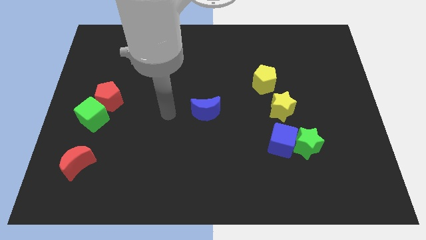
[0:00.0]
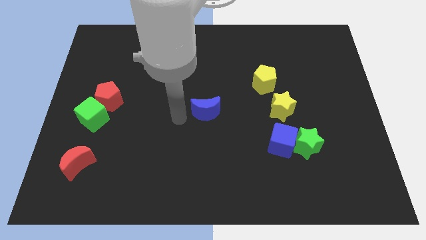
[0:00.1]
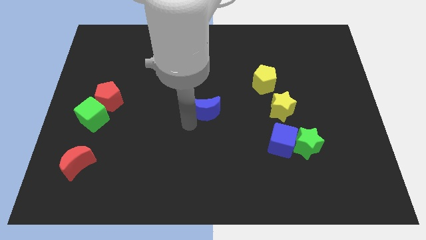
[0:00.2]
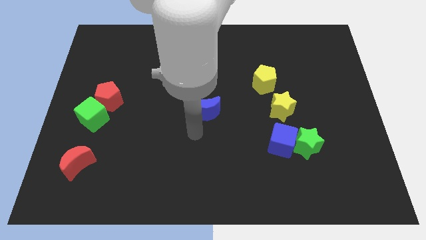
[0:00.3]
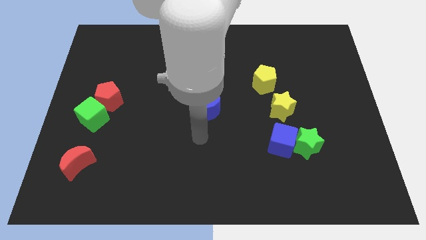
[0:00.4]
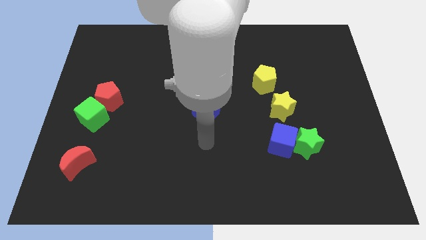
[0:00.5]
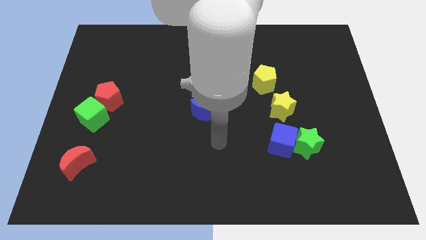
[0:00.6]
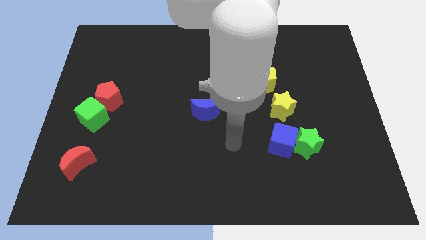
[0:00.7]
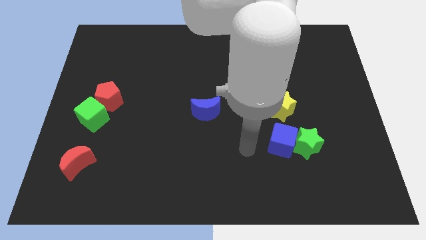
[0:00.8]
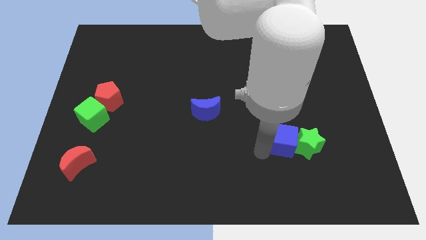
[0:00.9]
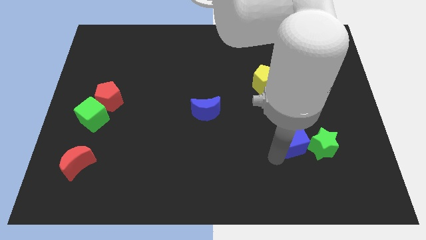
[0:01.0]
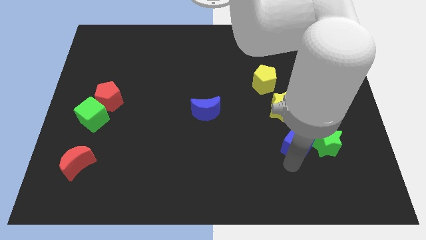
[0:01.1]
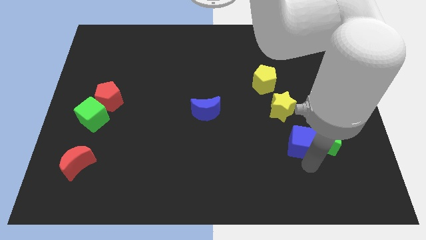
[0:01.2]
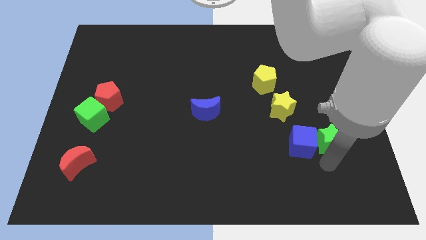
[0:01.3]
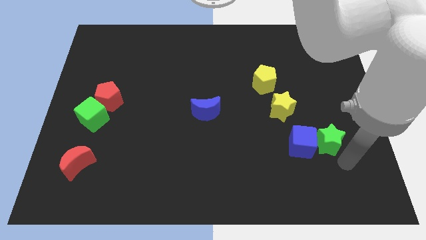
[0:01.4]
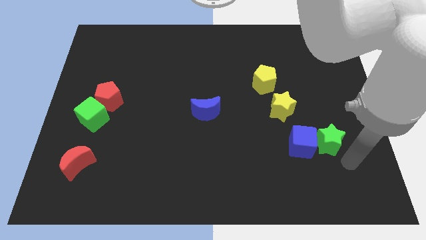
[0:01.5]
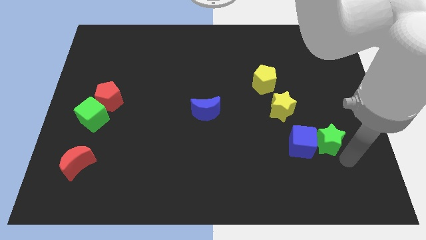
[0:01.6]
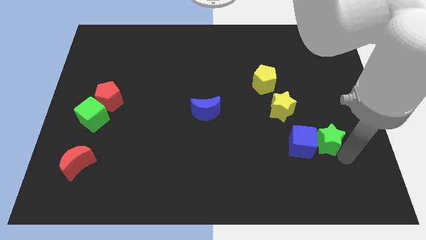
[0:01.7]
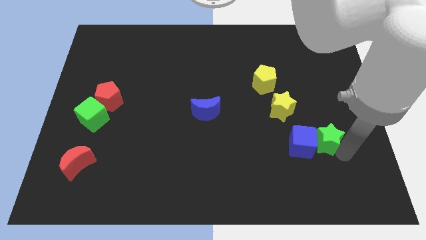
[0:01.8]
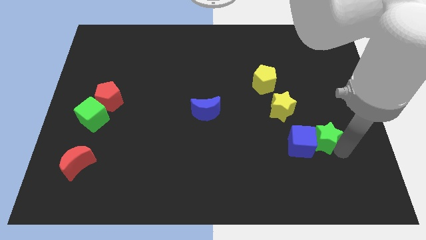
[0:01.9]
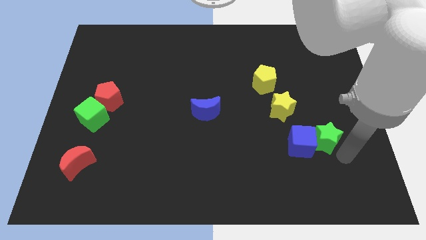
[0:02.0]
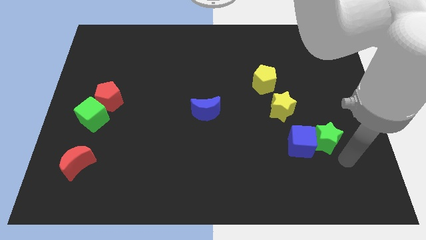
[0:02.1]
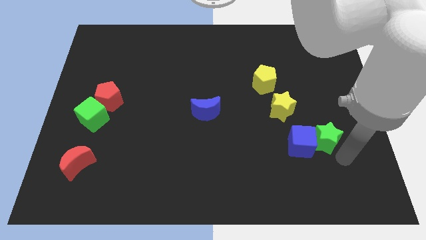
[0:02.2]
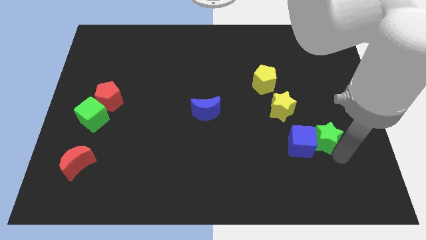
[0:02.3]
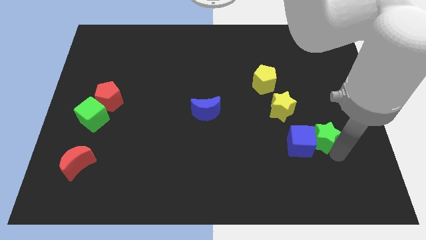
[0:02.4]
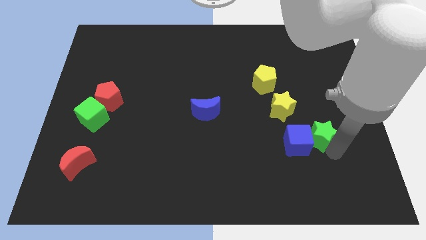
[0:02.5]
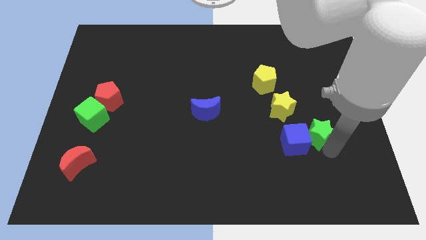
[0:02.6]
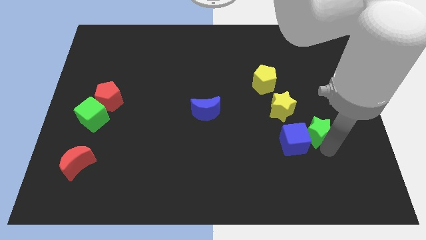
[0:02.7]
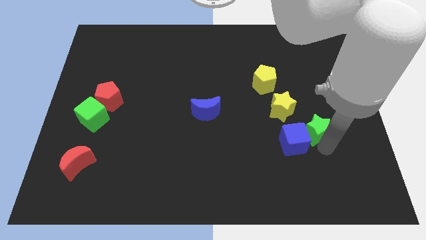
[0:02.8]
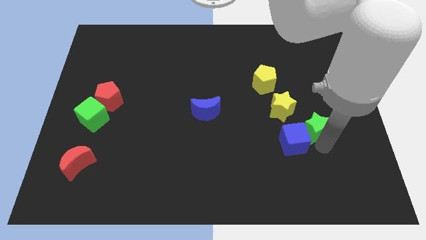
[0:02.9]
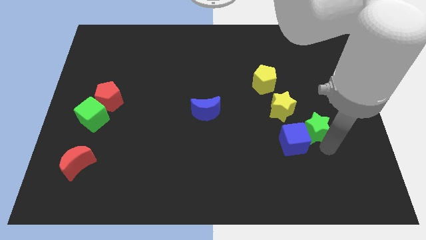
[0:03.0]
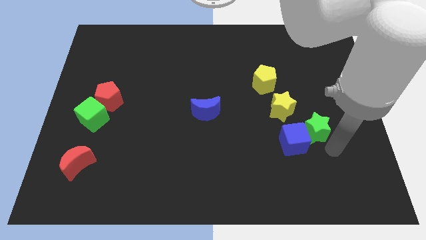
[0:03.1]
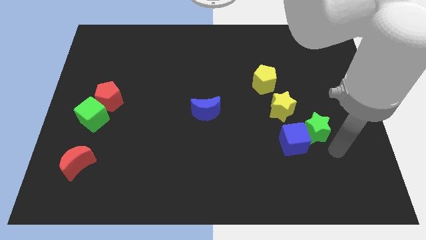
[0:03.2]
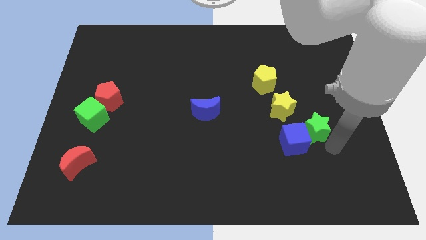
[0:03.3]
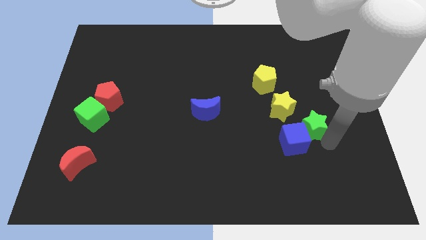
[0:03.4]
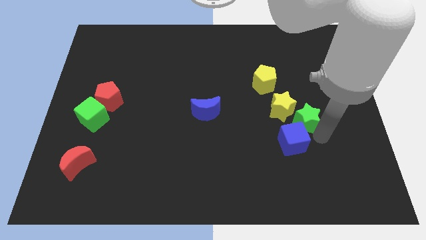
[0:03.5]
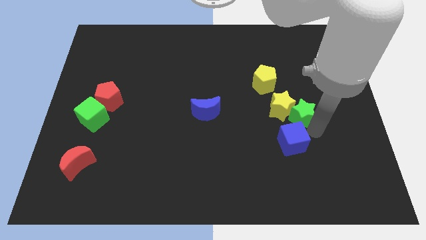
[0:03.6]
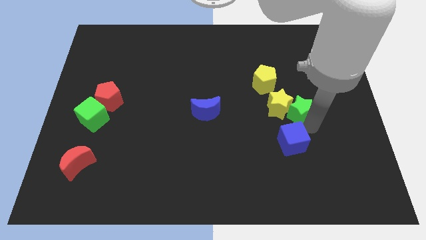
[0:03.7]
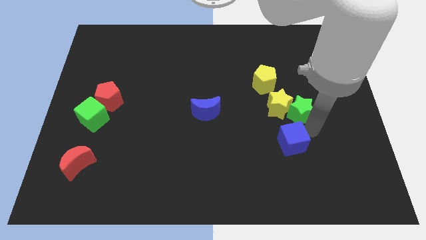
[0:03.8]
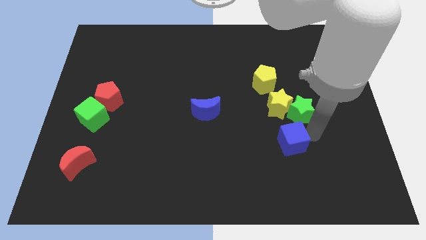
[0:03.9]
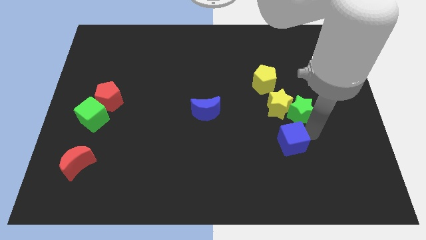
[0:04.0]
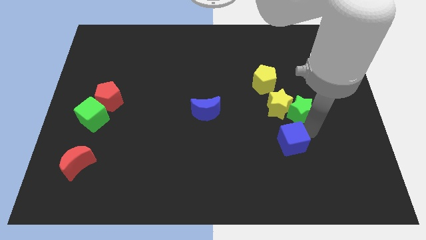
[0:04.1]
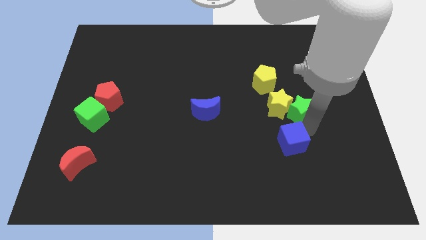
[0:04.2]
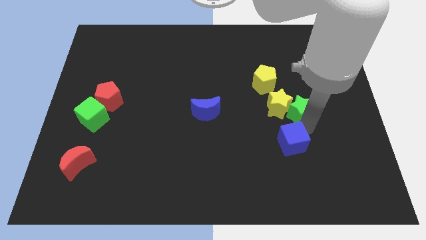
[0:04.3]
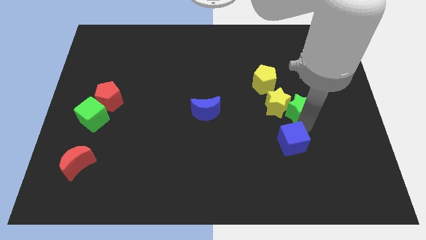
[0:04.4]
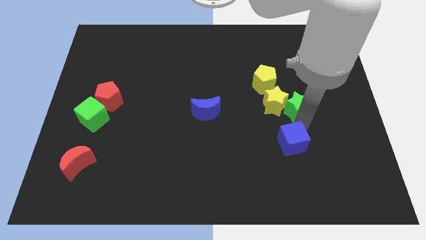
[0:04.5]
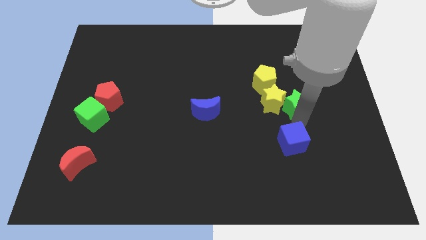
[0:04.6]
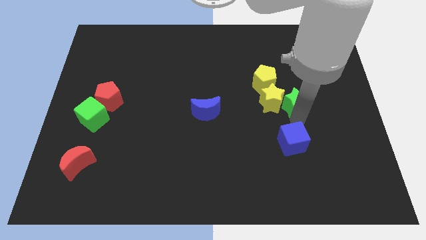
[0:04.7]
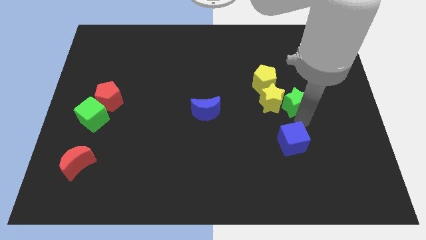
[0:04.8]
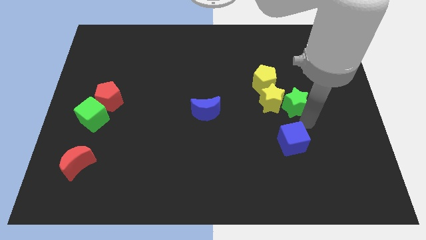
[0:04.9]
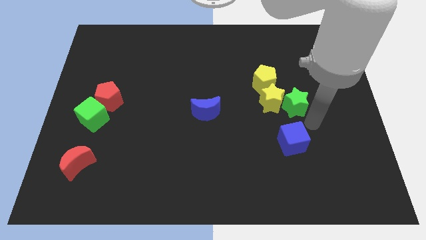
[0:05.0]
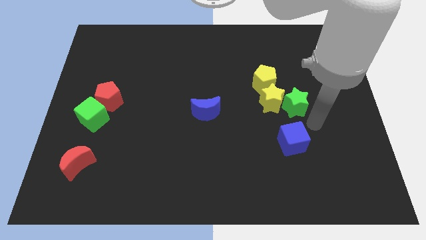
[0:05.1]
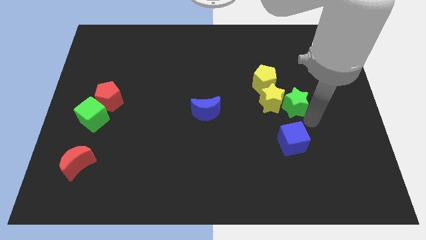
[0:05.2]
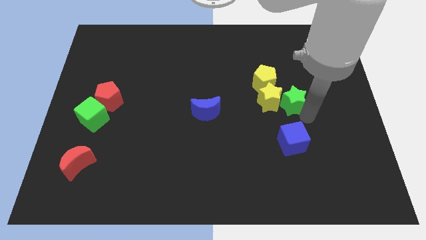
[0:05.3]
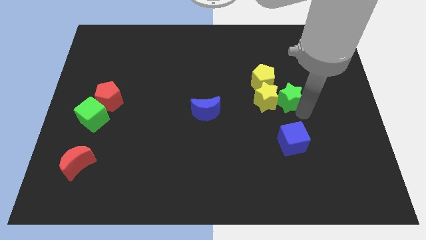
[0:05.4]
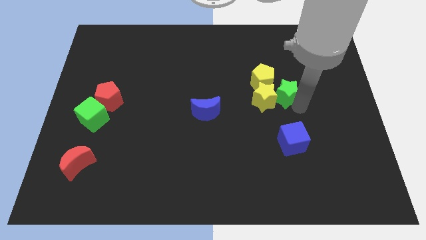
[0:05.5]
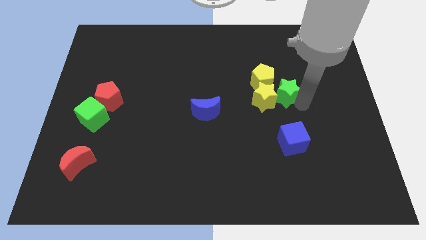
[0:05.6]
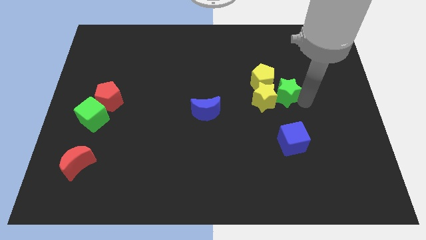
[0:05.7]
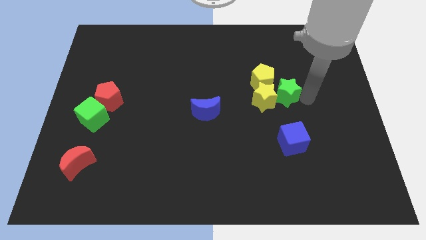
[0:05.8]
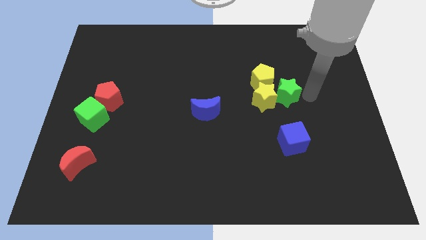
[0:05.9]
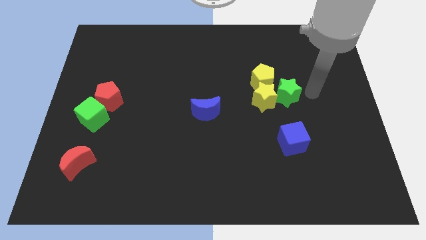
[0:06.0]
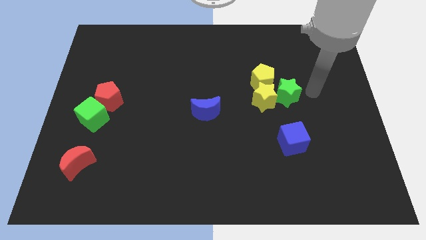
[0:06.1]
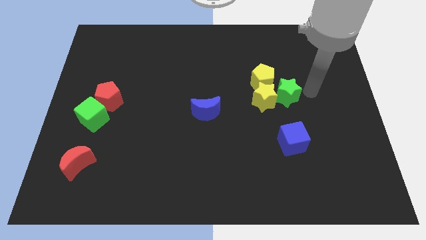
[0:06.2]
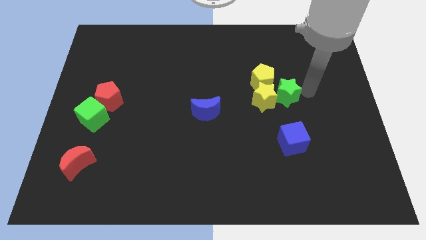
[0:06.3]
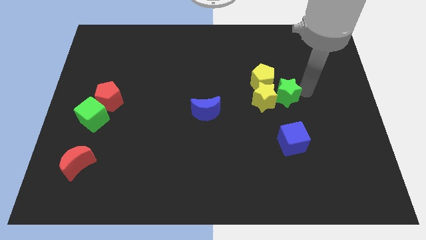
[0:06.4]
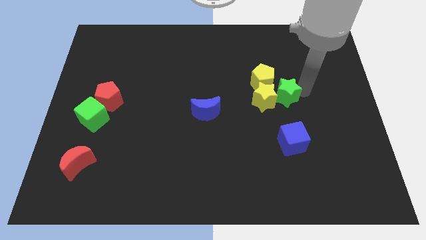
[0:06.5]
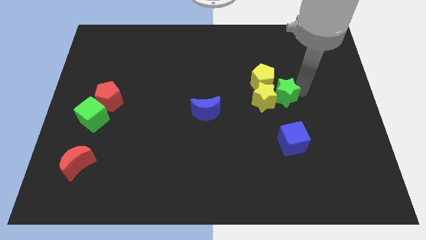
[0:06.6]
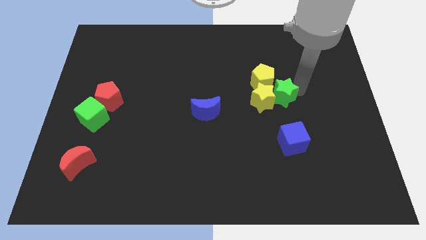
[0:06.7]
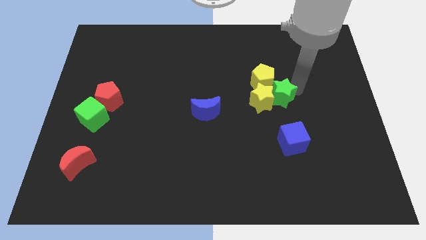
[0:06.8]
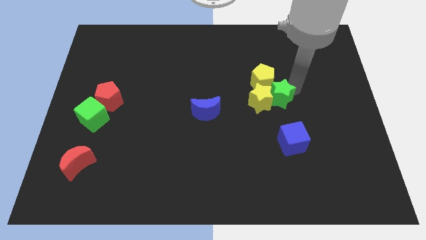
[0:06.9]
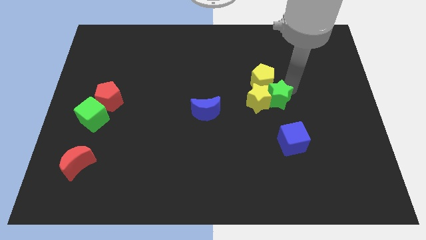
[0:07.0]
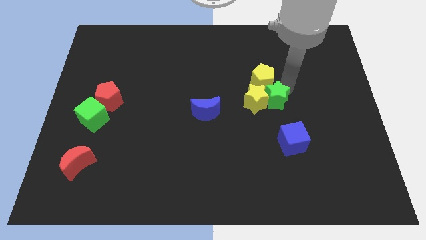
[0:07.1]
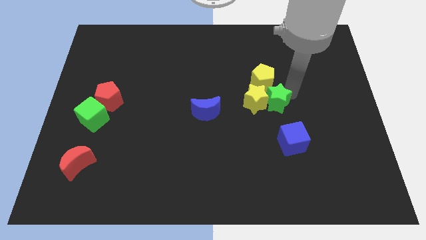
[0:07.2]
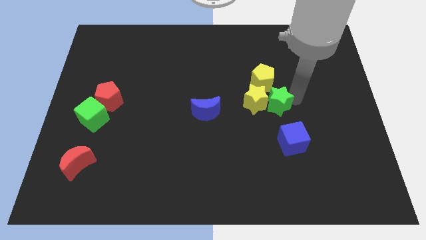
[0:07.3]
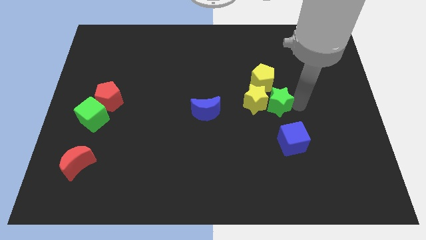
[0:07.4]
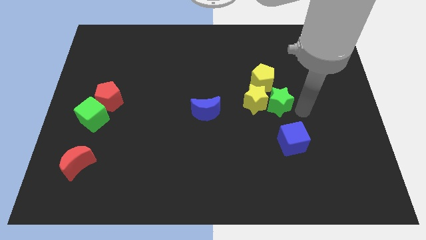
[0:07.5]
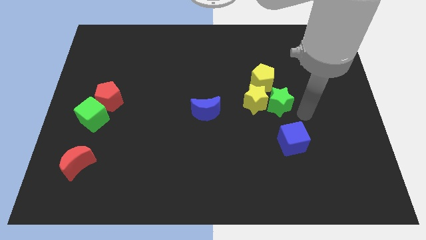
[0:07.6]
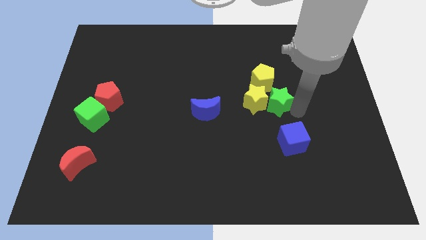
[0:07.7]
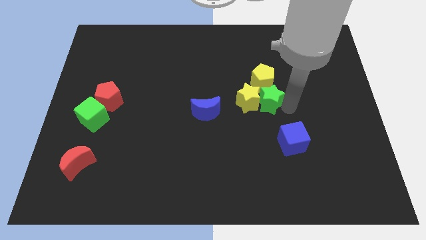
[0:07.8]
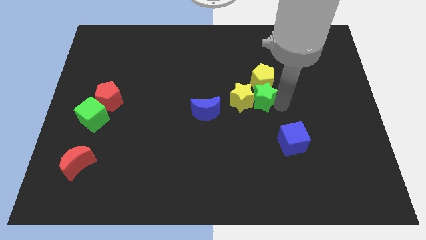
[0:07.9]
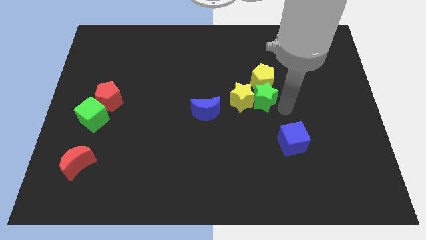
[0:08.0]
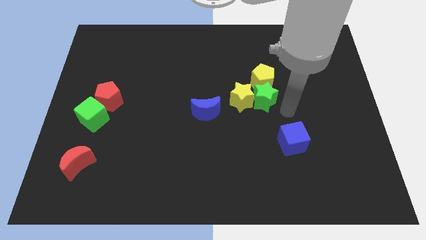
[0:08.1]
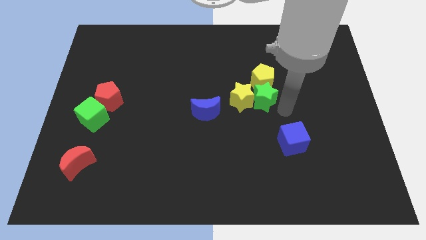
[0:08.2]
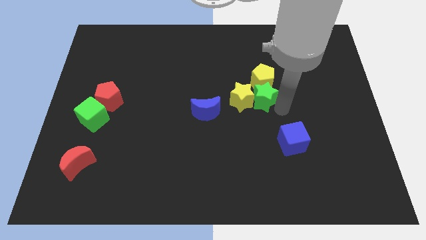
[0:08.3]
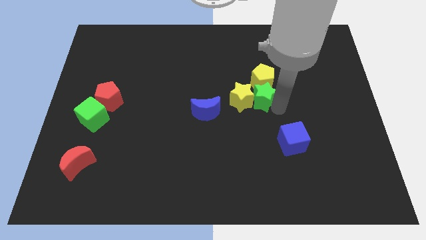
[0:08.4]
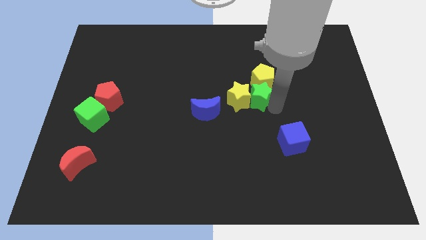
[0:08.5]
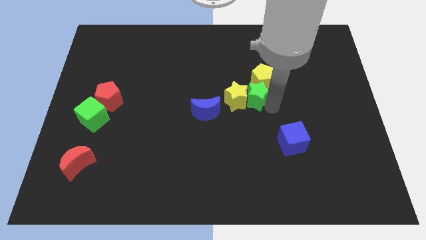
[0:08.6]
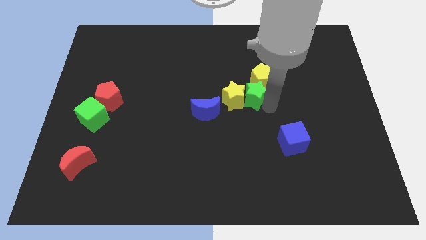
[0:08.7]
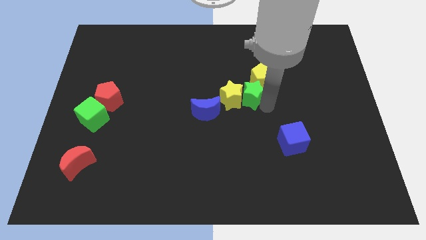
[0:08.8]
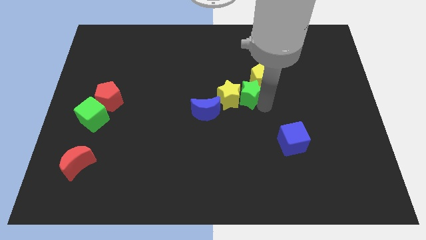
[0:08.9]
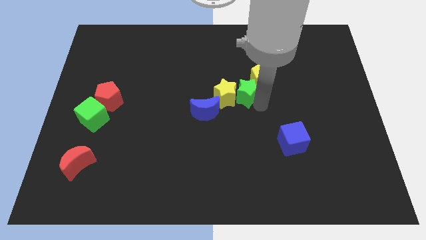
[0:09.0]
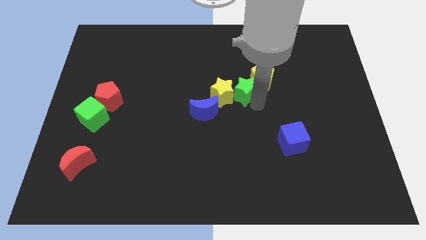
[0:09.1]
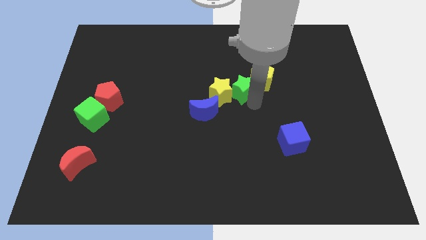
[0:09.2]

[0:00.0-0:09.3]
slide the green star diagonally upwards and to the left
